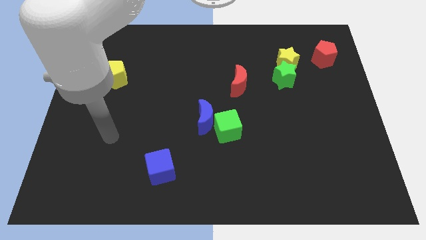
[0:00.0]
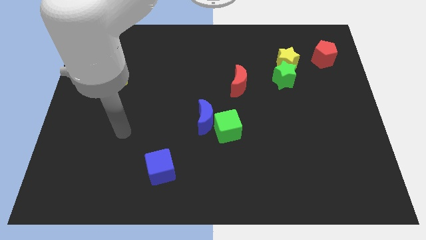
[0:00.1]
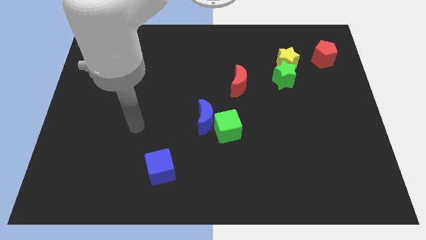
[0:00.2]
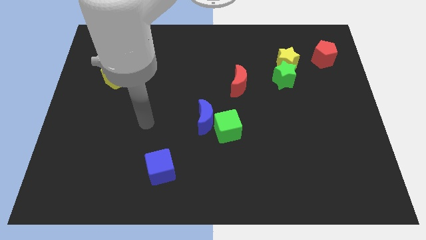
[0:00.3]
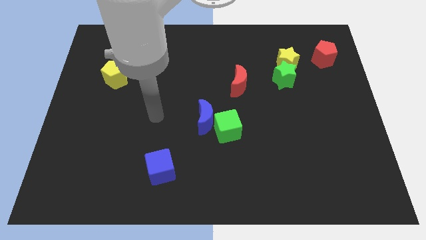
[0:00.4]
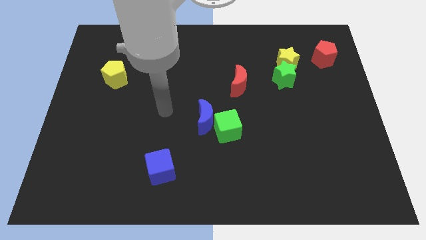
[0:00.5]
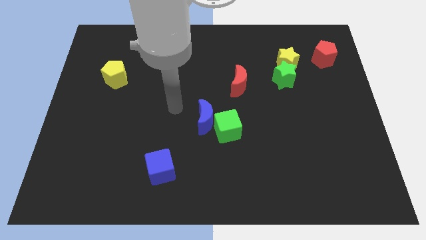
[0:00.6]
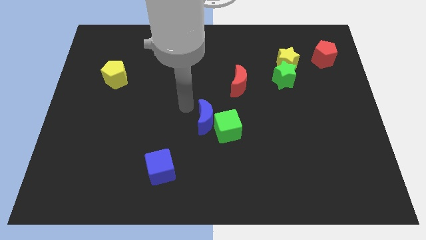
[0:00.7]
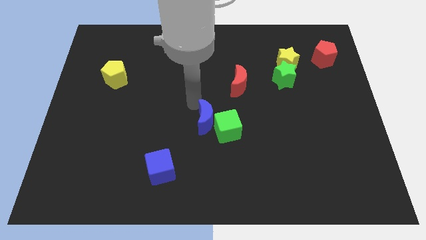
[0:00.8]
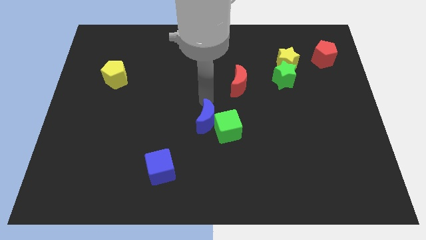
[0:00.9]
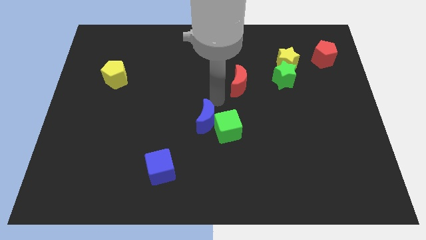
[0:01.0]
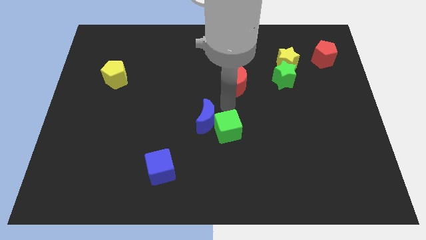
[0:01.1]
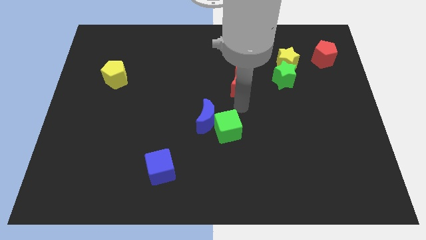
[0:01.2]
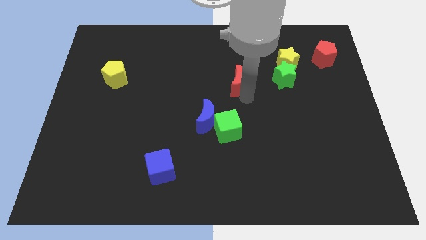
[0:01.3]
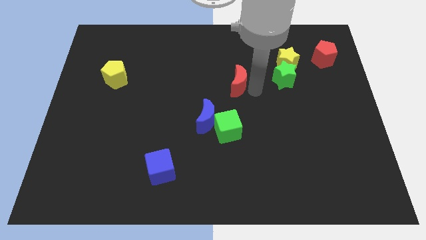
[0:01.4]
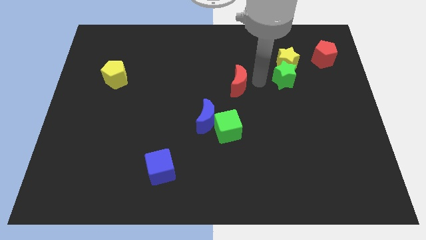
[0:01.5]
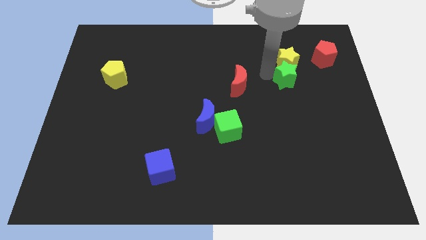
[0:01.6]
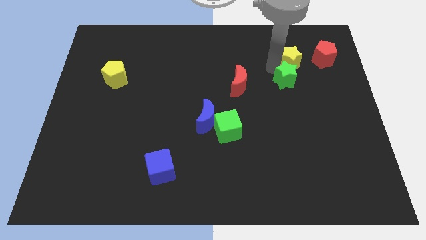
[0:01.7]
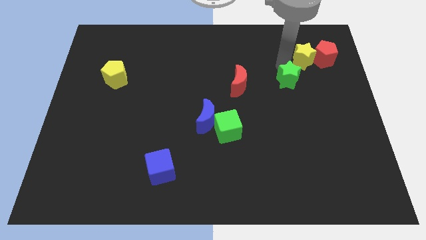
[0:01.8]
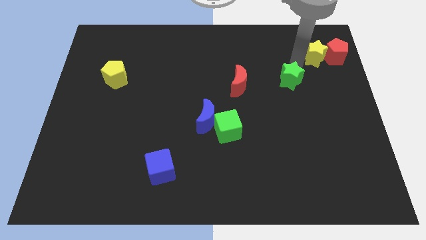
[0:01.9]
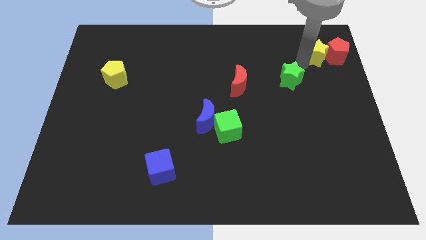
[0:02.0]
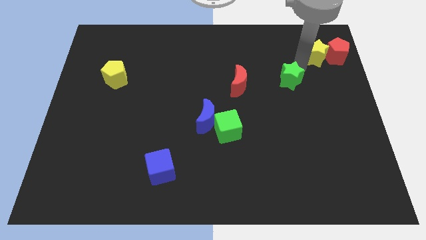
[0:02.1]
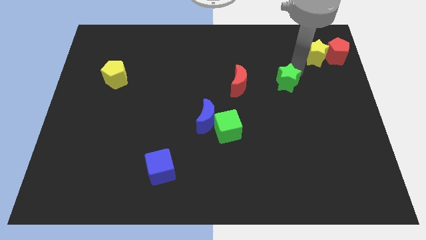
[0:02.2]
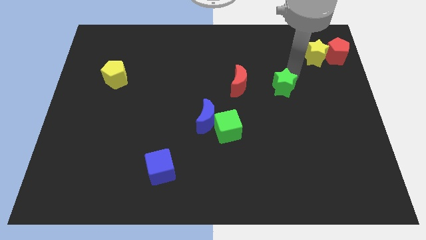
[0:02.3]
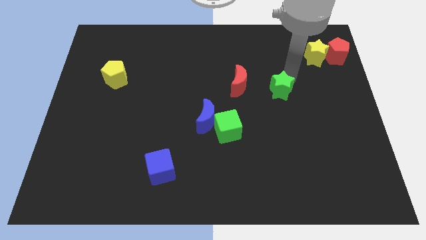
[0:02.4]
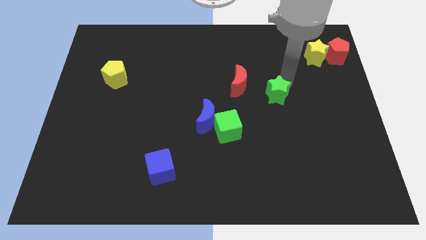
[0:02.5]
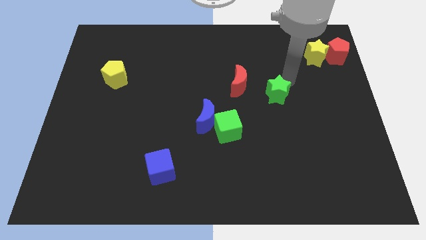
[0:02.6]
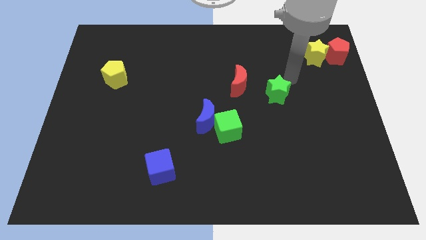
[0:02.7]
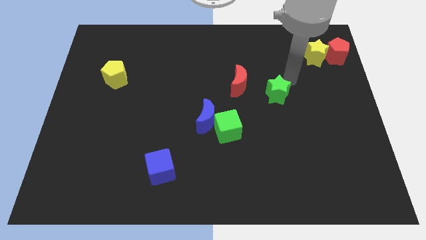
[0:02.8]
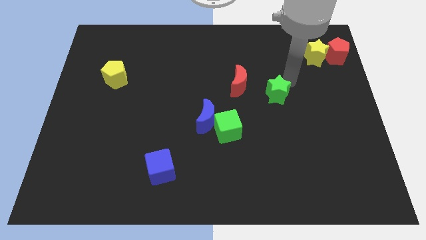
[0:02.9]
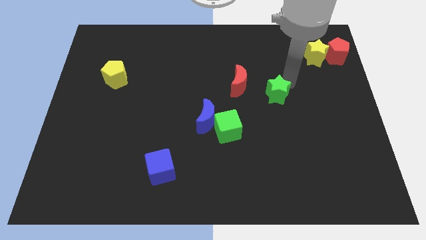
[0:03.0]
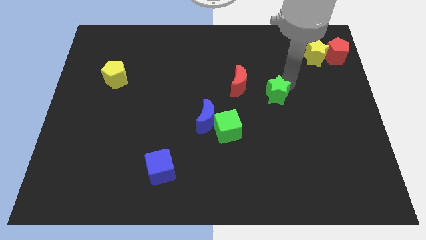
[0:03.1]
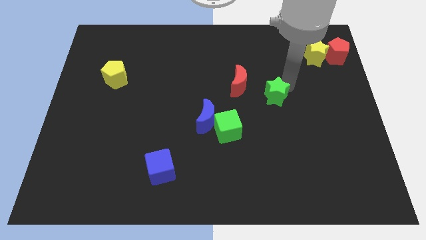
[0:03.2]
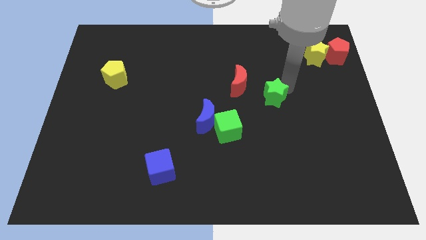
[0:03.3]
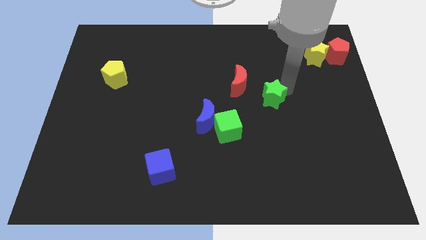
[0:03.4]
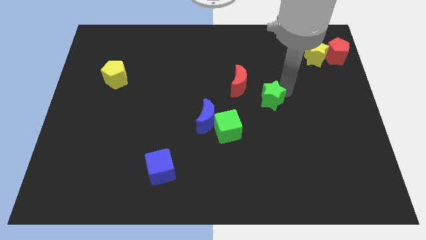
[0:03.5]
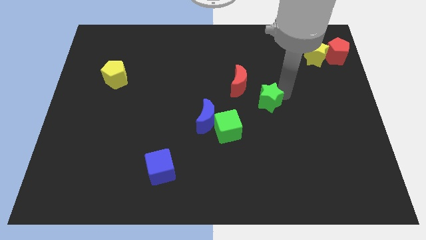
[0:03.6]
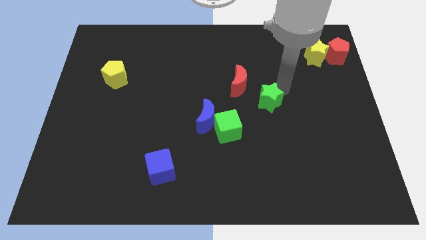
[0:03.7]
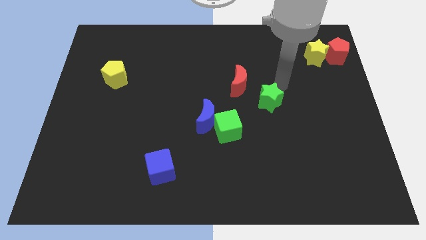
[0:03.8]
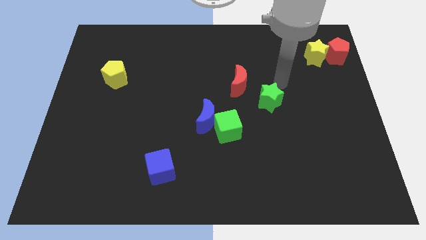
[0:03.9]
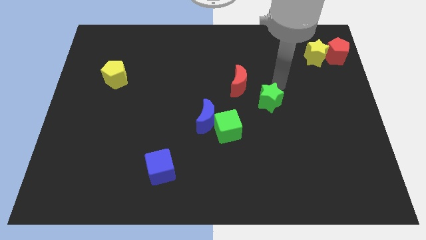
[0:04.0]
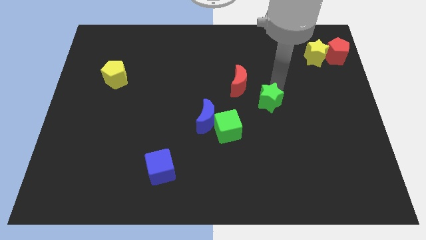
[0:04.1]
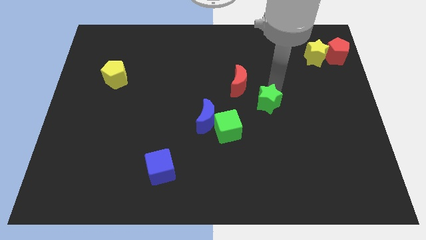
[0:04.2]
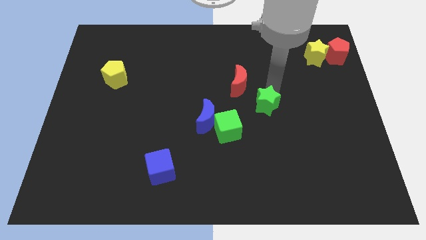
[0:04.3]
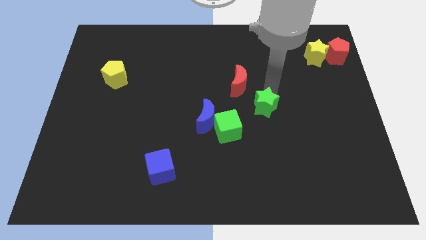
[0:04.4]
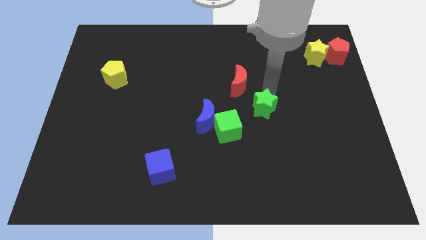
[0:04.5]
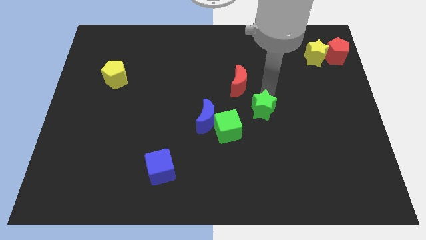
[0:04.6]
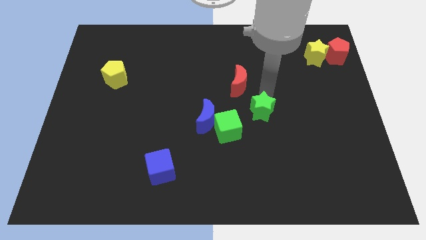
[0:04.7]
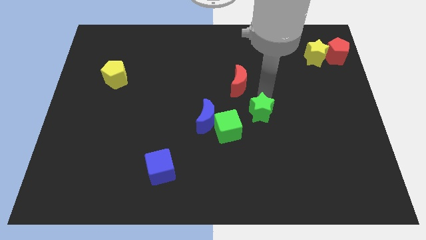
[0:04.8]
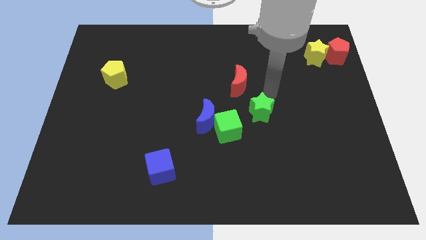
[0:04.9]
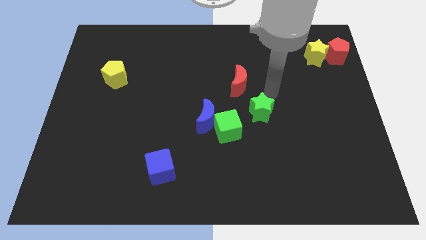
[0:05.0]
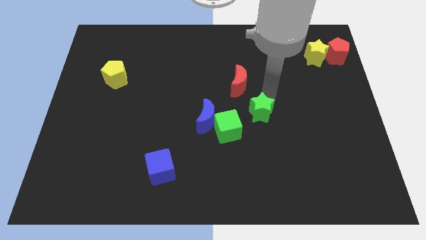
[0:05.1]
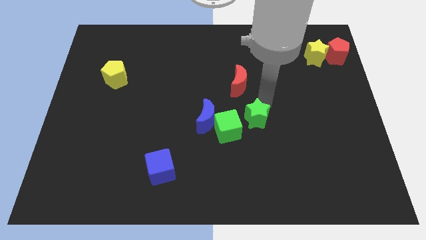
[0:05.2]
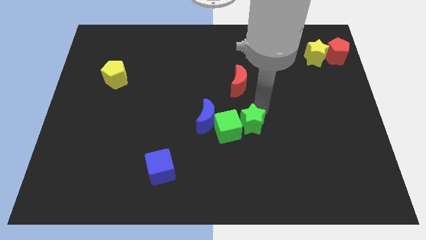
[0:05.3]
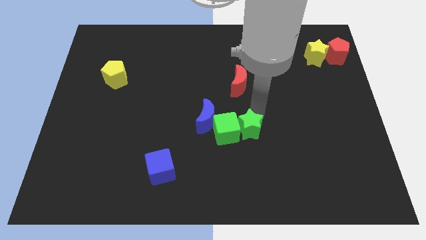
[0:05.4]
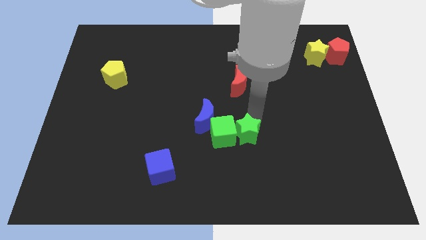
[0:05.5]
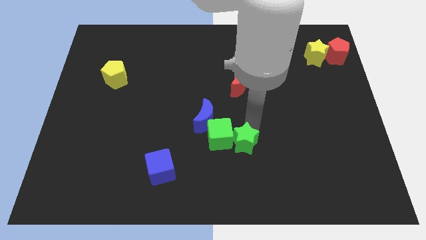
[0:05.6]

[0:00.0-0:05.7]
move the green star downwards and then left

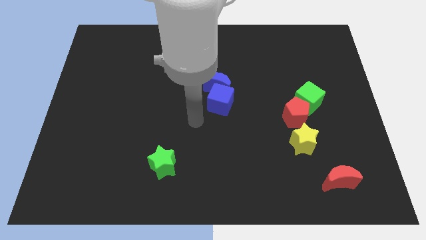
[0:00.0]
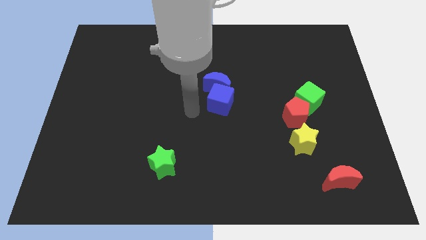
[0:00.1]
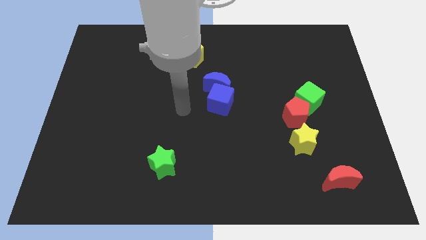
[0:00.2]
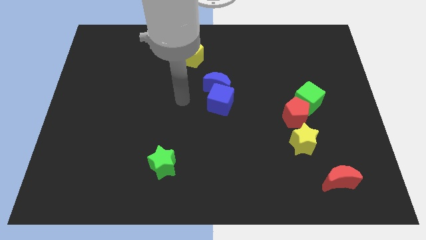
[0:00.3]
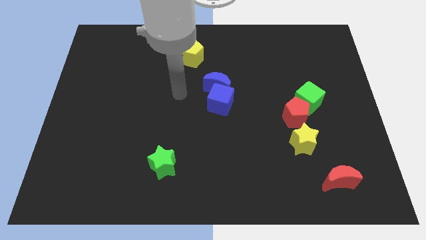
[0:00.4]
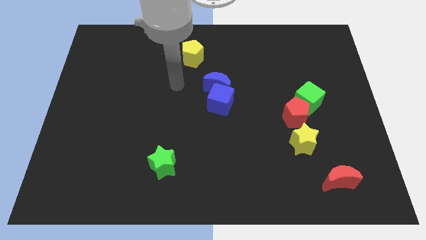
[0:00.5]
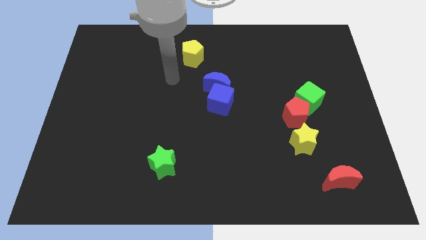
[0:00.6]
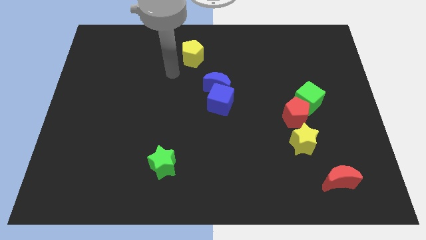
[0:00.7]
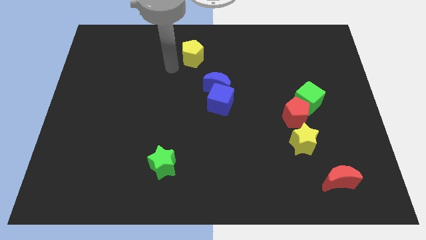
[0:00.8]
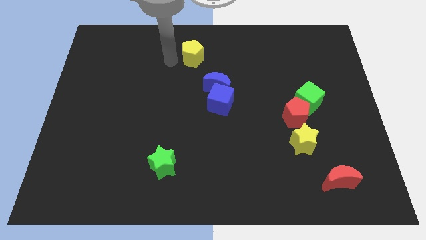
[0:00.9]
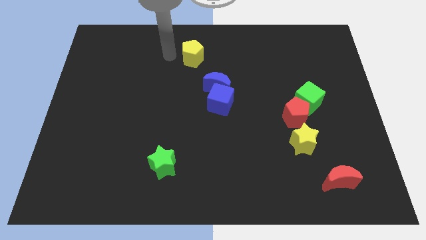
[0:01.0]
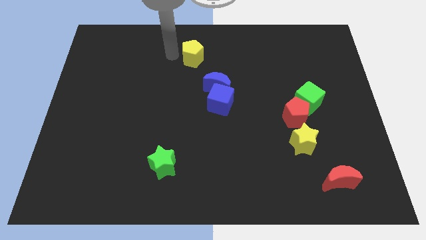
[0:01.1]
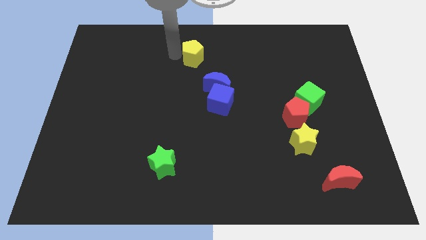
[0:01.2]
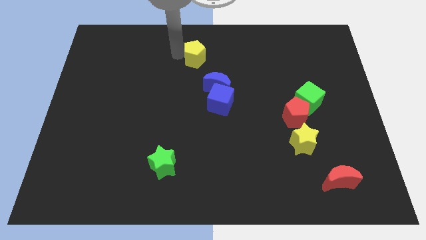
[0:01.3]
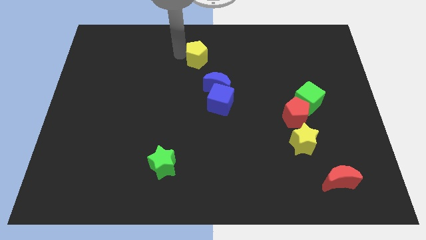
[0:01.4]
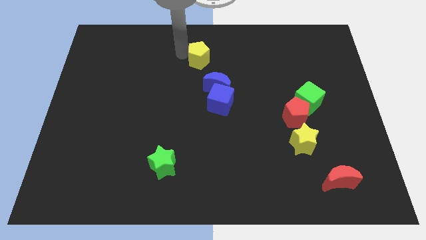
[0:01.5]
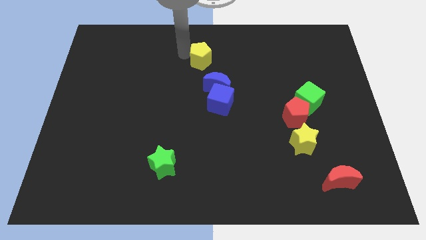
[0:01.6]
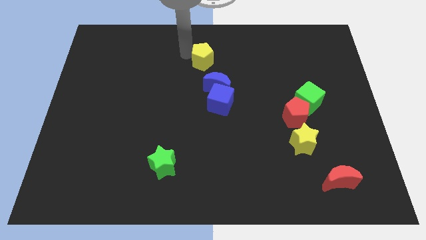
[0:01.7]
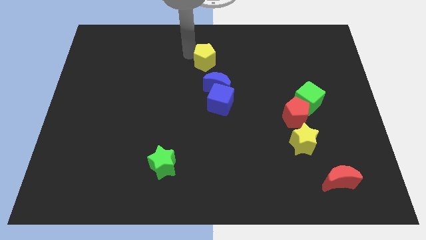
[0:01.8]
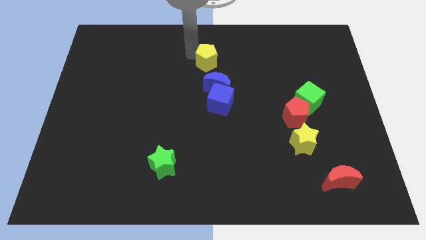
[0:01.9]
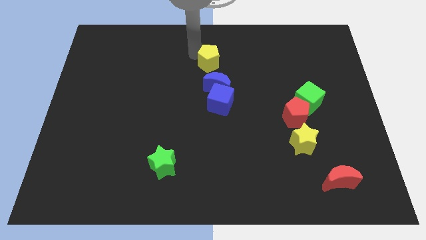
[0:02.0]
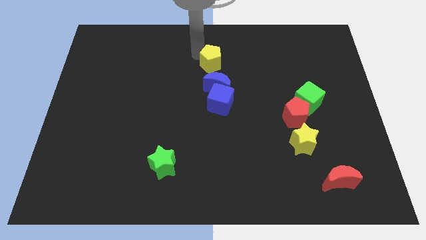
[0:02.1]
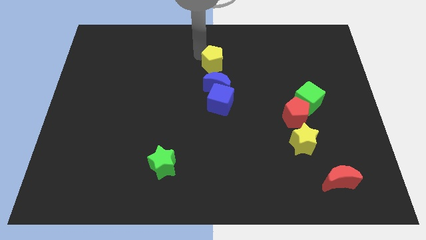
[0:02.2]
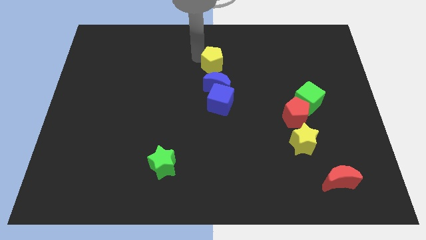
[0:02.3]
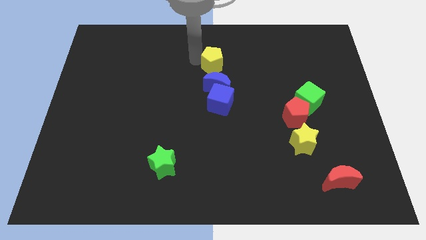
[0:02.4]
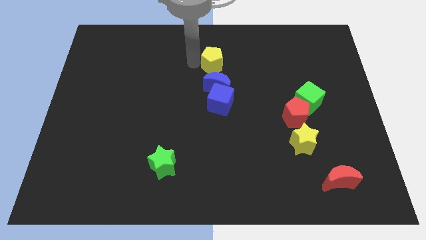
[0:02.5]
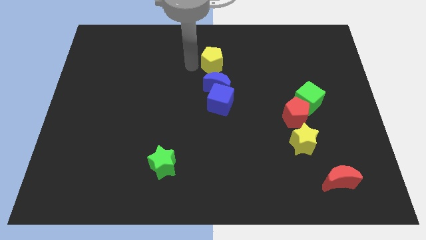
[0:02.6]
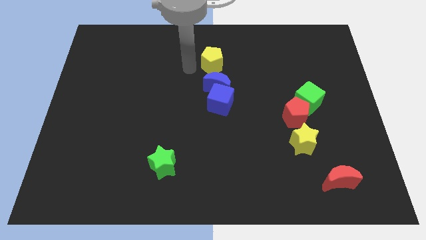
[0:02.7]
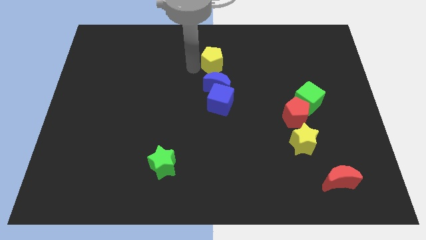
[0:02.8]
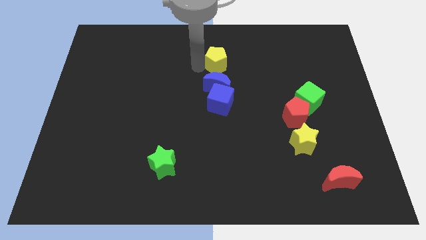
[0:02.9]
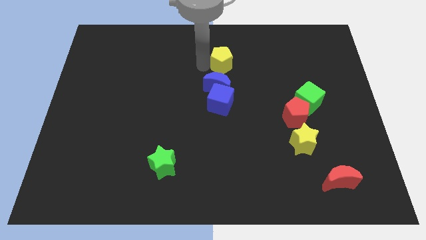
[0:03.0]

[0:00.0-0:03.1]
move the yellow pentagon to the right a little
